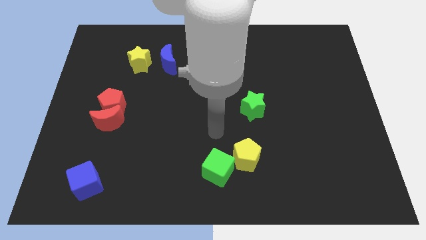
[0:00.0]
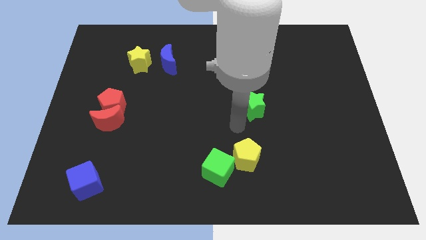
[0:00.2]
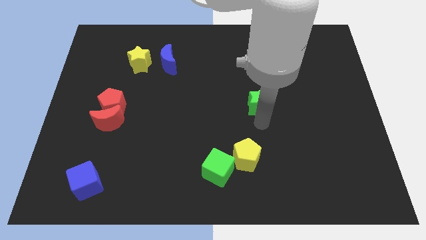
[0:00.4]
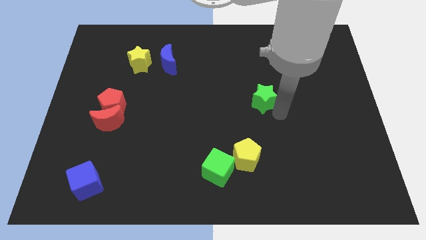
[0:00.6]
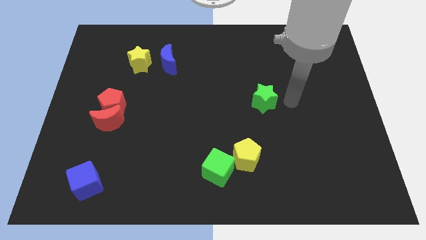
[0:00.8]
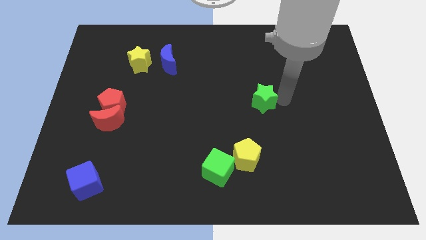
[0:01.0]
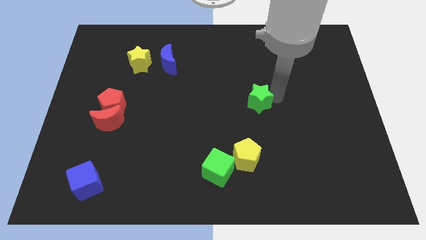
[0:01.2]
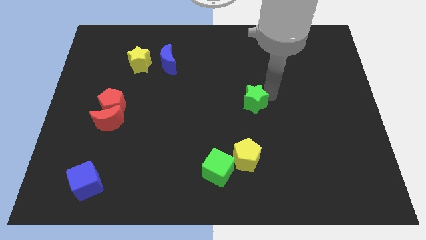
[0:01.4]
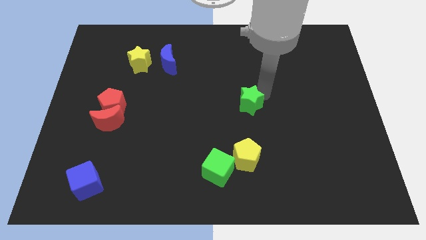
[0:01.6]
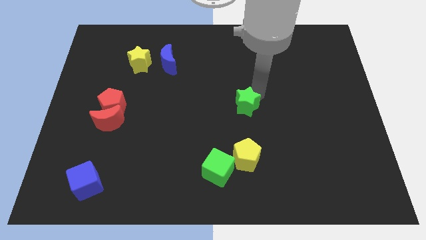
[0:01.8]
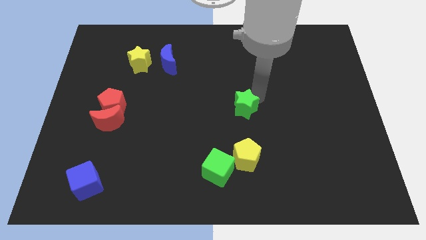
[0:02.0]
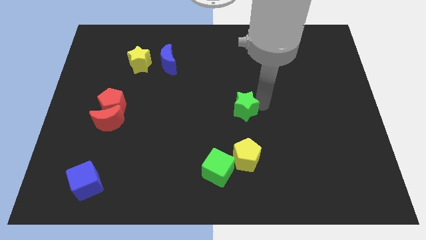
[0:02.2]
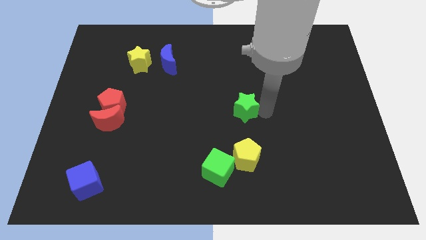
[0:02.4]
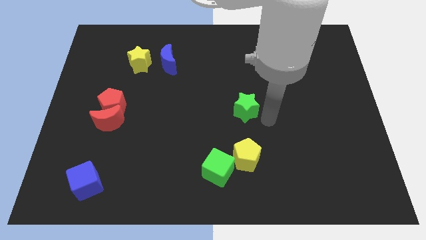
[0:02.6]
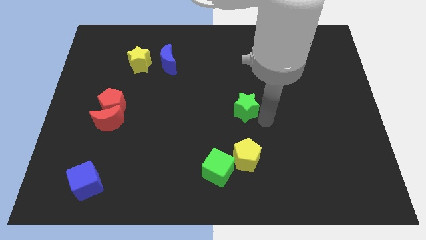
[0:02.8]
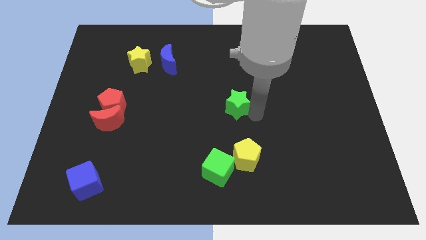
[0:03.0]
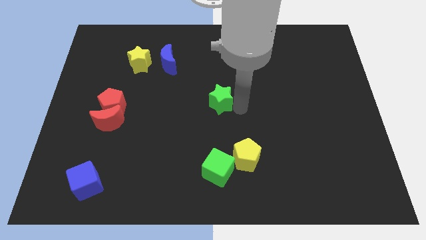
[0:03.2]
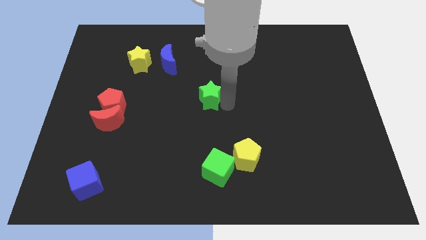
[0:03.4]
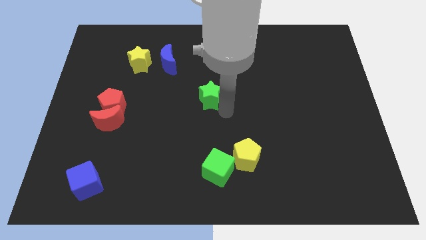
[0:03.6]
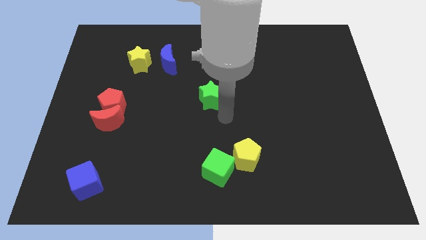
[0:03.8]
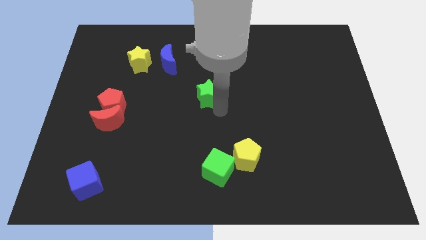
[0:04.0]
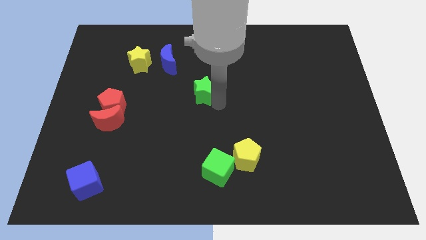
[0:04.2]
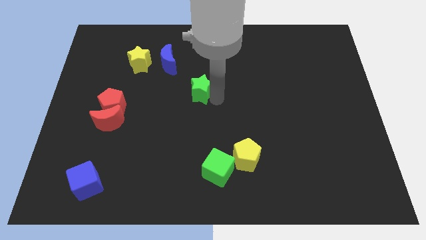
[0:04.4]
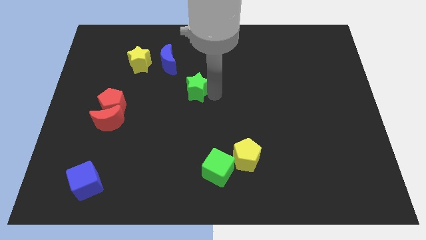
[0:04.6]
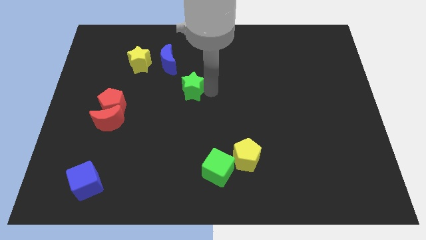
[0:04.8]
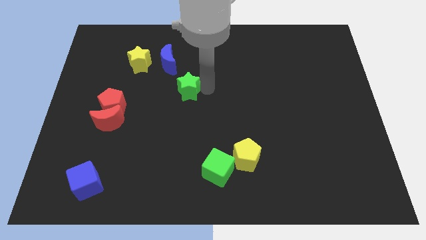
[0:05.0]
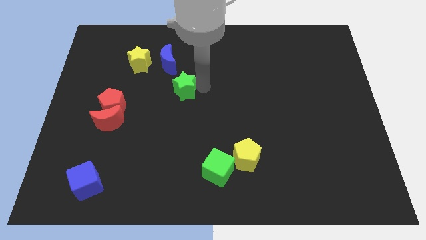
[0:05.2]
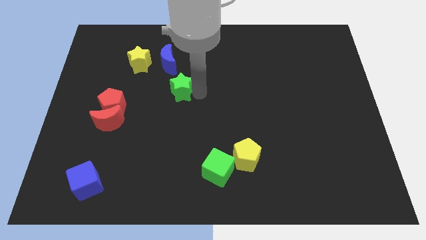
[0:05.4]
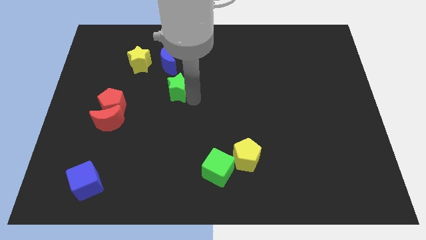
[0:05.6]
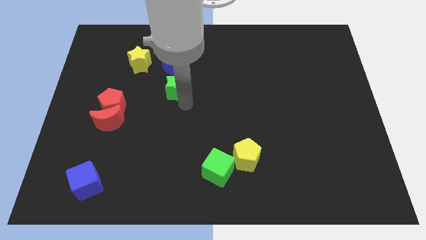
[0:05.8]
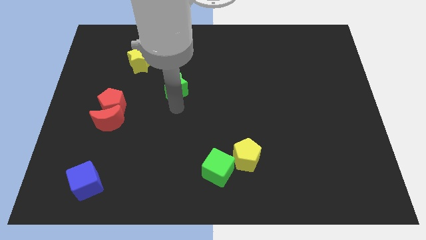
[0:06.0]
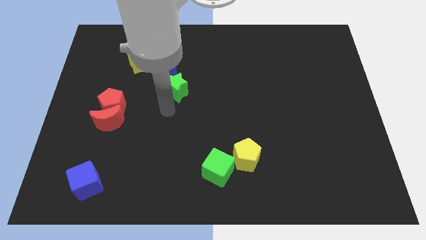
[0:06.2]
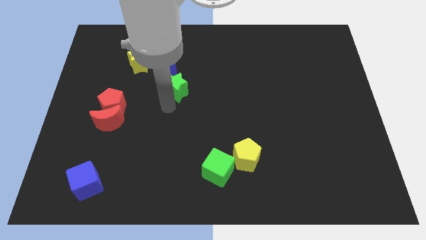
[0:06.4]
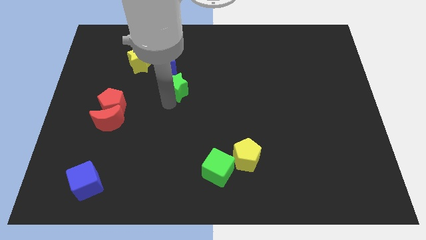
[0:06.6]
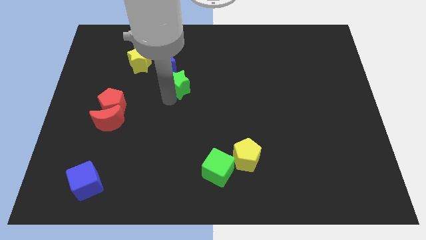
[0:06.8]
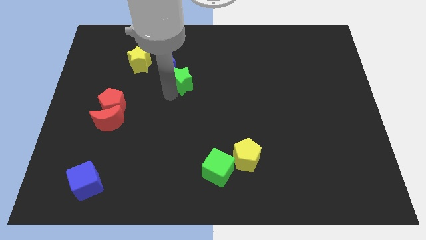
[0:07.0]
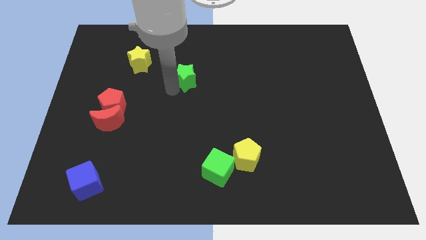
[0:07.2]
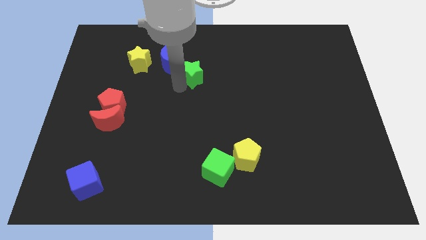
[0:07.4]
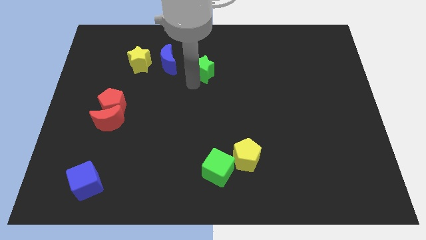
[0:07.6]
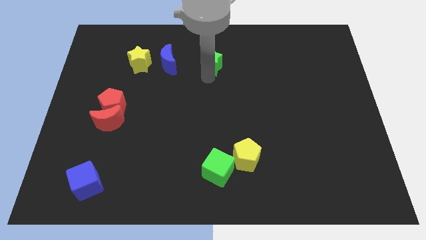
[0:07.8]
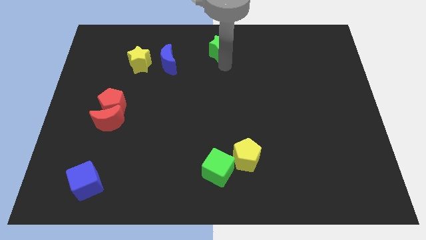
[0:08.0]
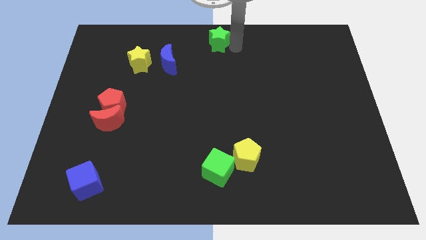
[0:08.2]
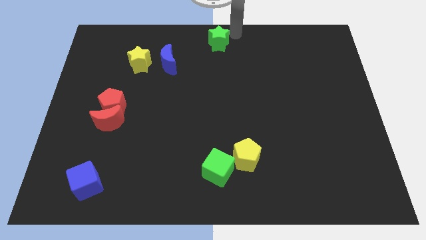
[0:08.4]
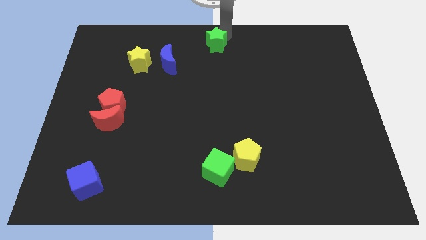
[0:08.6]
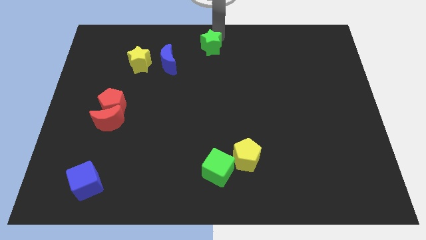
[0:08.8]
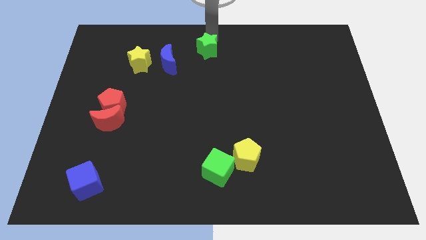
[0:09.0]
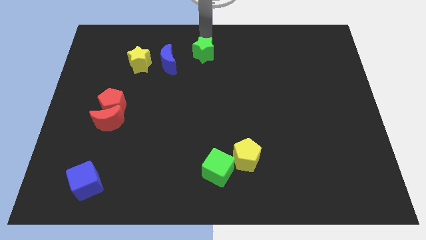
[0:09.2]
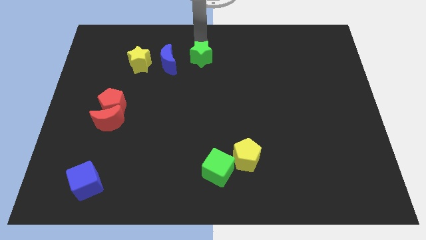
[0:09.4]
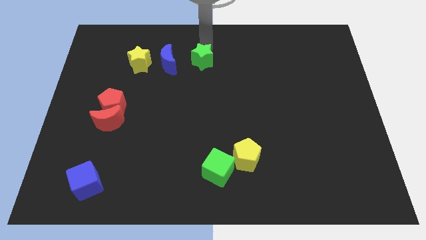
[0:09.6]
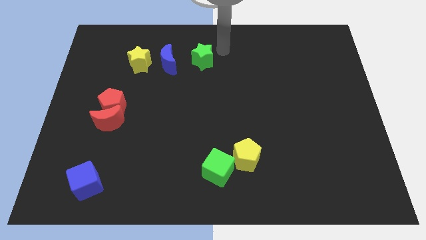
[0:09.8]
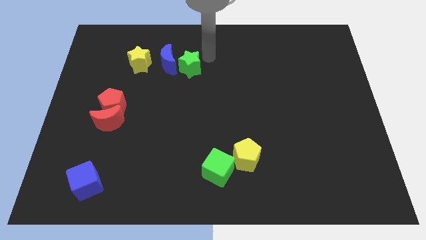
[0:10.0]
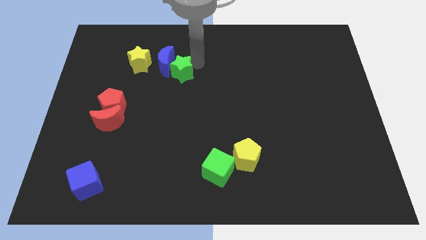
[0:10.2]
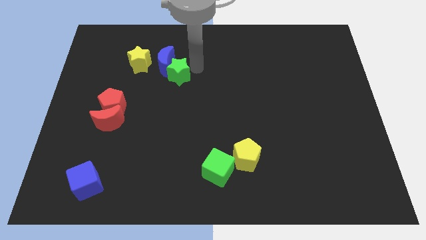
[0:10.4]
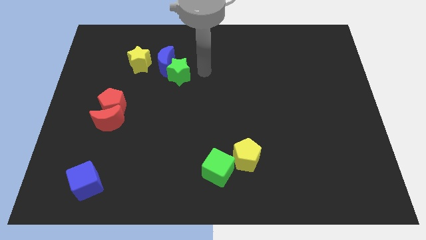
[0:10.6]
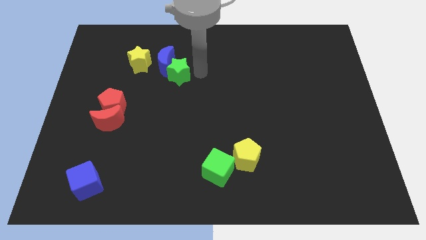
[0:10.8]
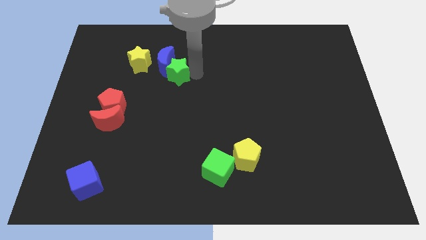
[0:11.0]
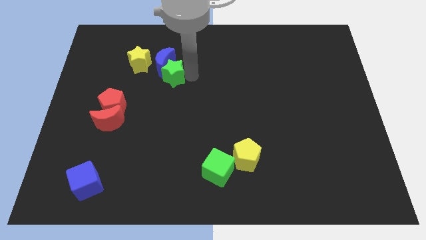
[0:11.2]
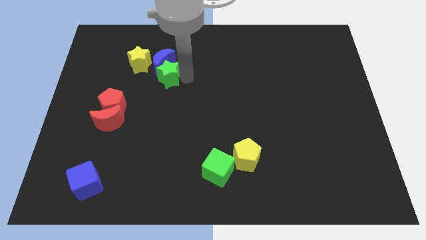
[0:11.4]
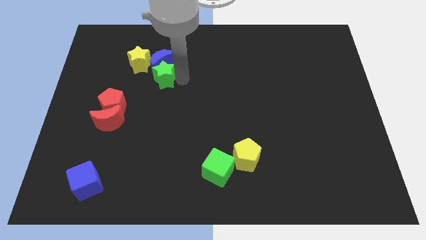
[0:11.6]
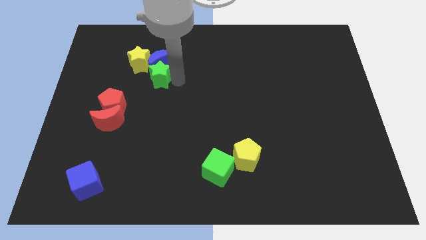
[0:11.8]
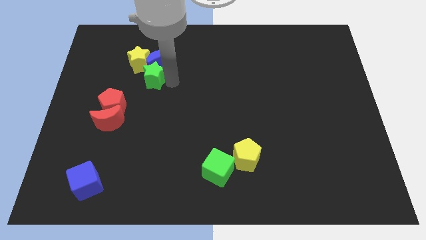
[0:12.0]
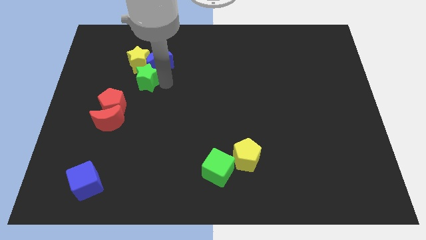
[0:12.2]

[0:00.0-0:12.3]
put the green star to the yellow star
